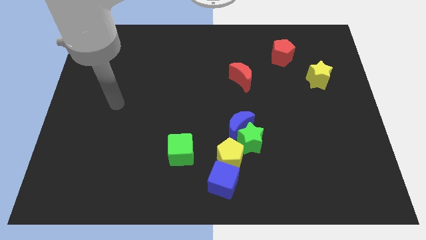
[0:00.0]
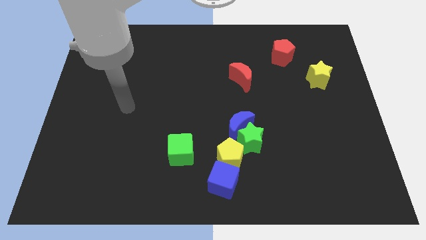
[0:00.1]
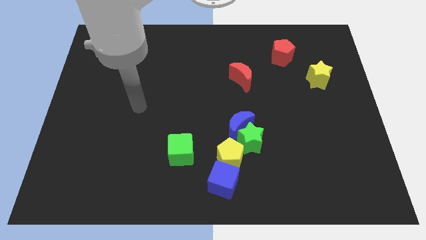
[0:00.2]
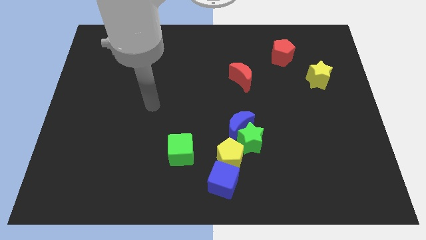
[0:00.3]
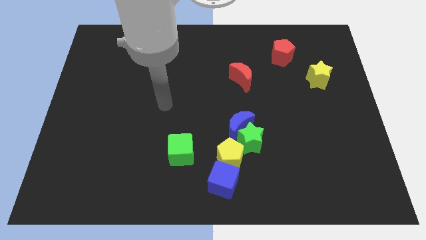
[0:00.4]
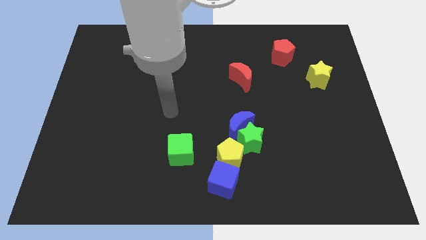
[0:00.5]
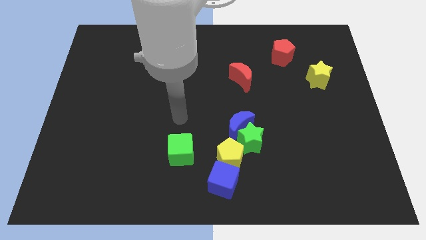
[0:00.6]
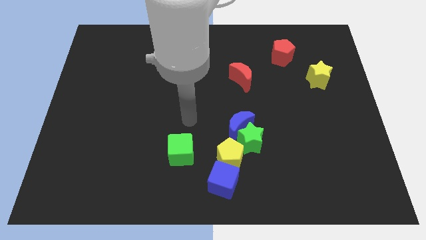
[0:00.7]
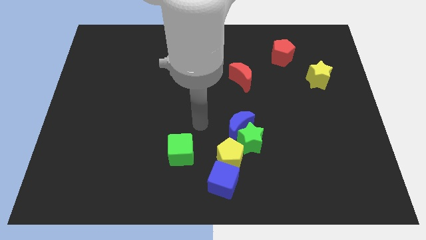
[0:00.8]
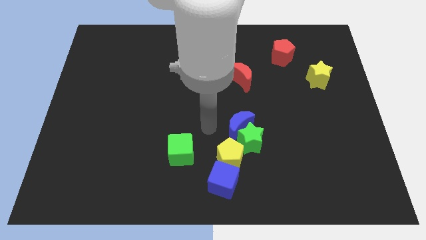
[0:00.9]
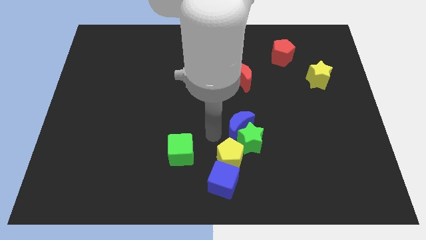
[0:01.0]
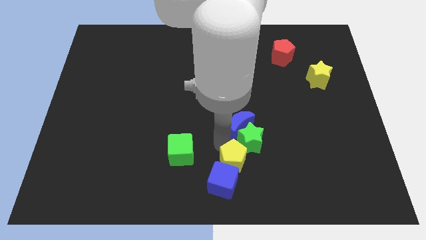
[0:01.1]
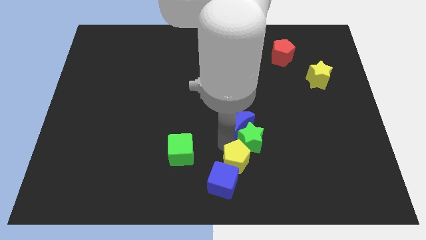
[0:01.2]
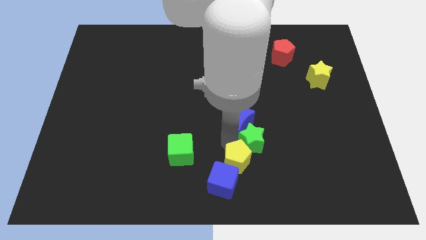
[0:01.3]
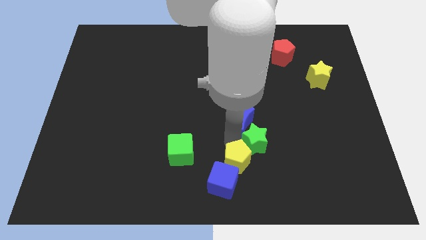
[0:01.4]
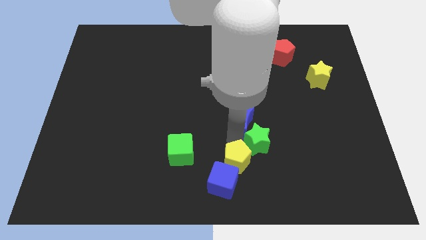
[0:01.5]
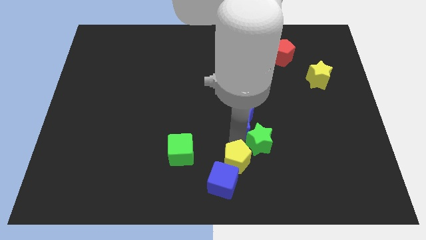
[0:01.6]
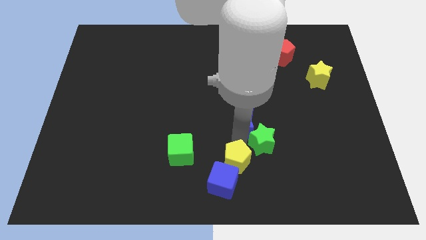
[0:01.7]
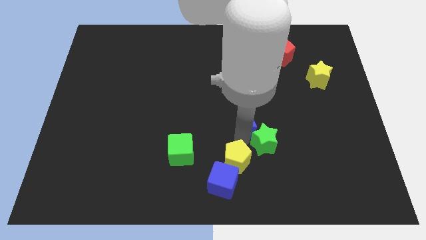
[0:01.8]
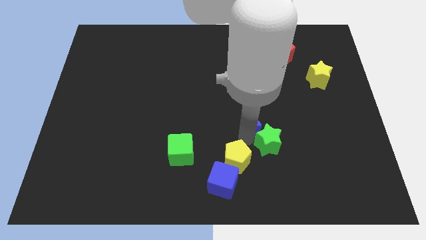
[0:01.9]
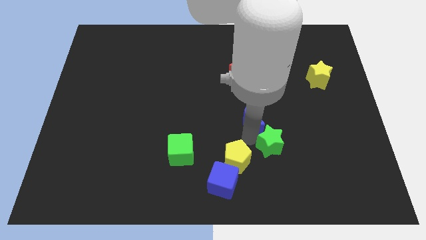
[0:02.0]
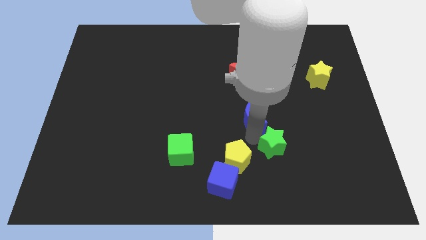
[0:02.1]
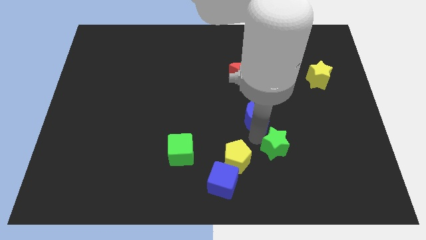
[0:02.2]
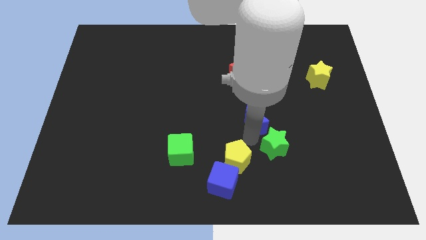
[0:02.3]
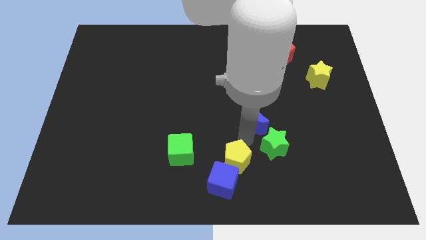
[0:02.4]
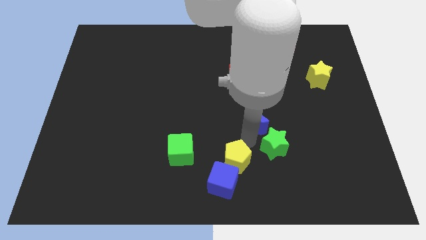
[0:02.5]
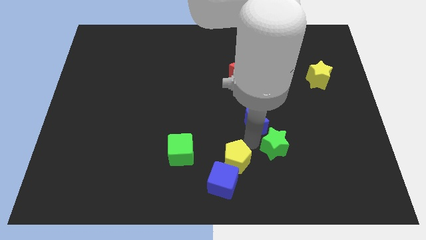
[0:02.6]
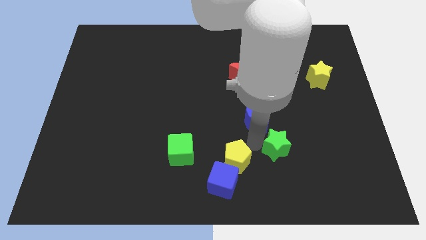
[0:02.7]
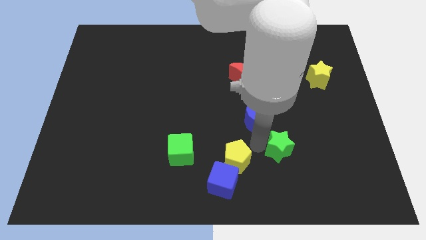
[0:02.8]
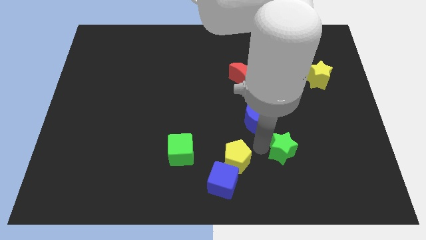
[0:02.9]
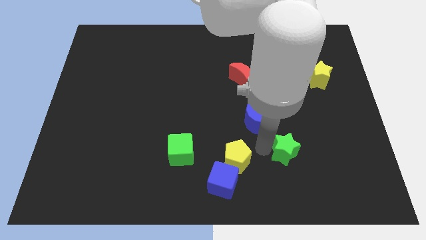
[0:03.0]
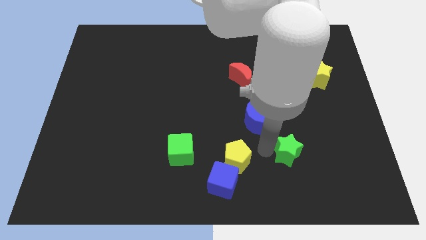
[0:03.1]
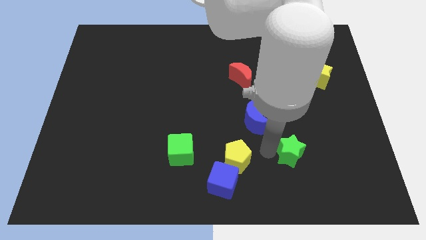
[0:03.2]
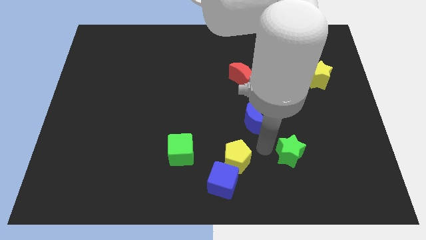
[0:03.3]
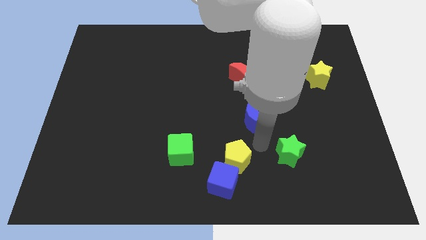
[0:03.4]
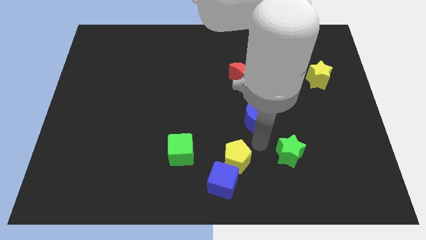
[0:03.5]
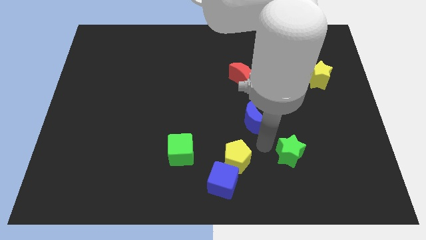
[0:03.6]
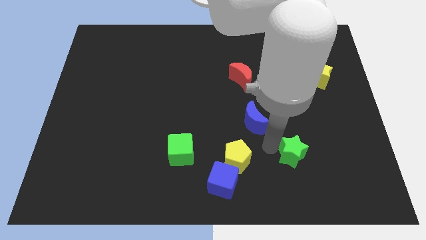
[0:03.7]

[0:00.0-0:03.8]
separate the green star from the blue moon and yellow pentagon

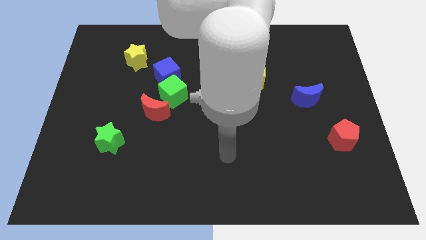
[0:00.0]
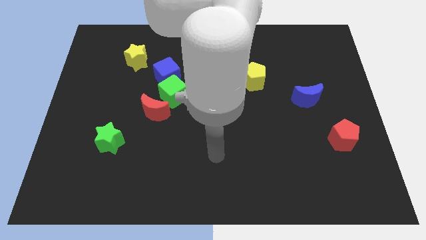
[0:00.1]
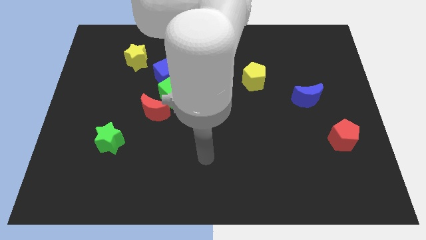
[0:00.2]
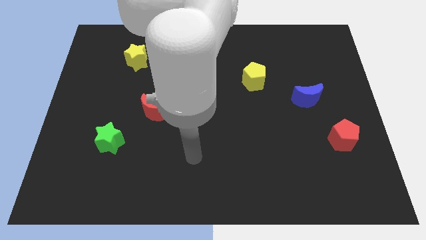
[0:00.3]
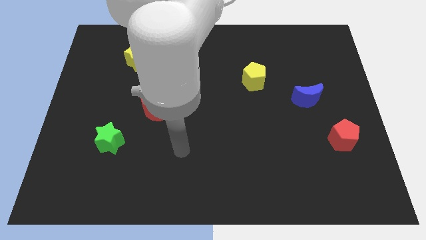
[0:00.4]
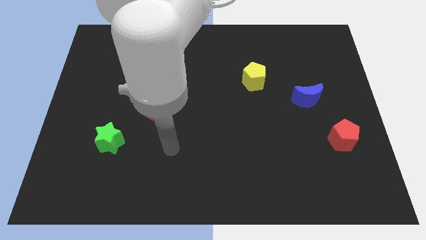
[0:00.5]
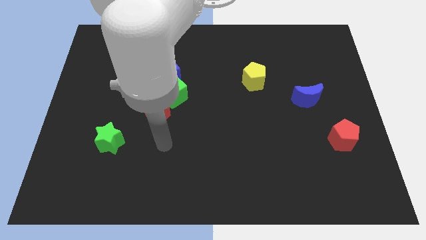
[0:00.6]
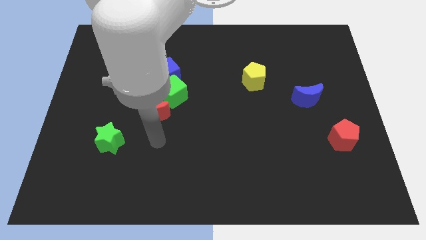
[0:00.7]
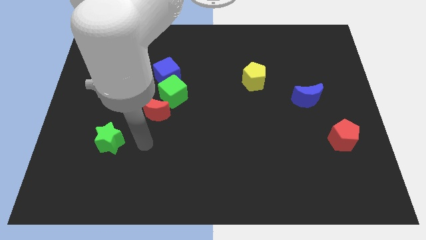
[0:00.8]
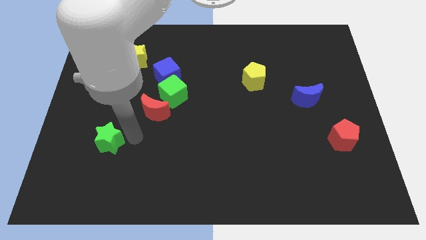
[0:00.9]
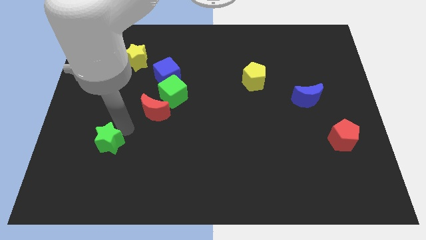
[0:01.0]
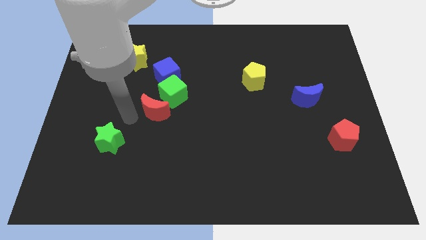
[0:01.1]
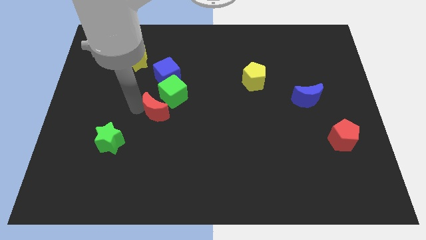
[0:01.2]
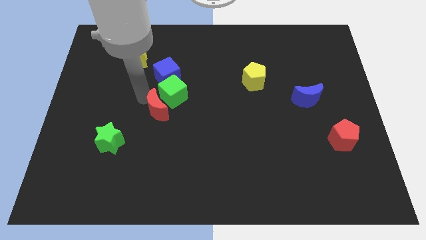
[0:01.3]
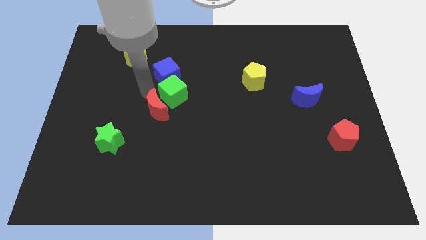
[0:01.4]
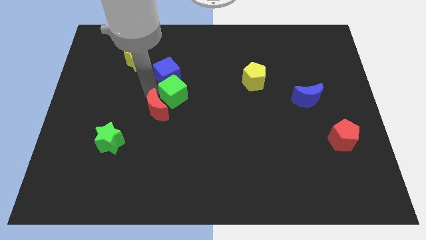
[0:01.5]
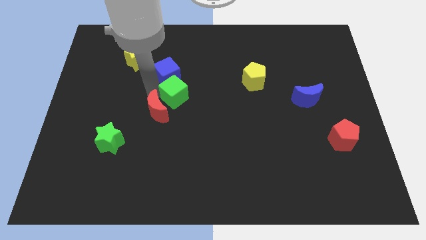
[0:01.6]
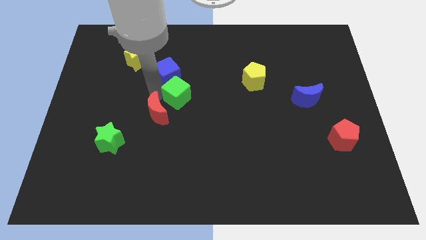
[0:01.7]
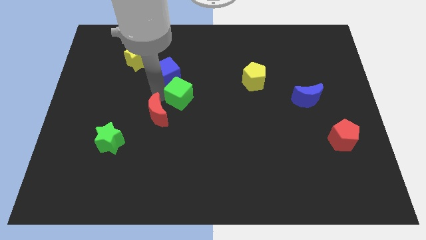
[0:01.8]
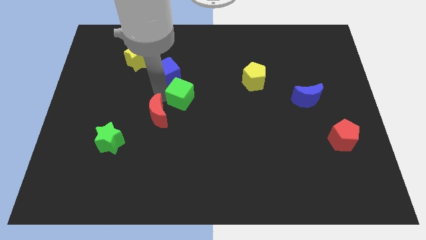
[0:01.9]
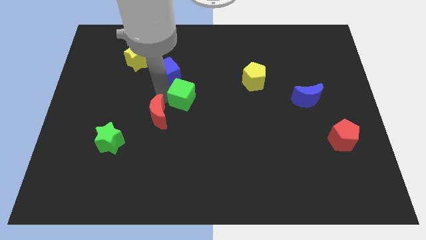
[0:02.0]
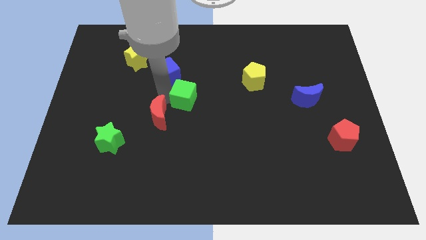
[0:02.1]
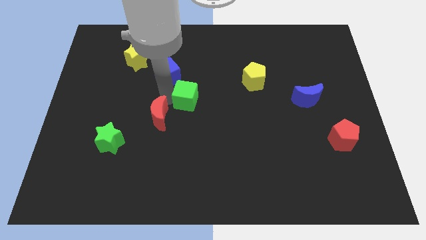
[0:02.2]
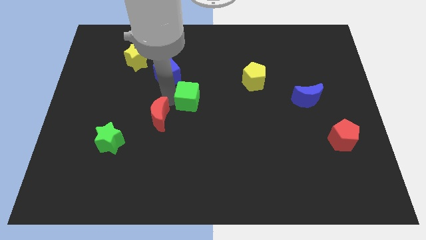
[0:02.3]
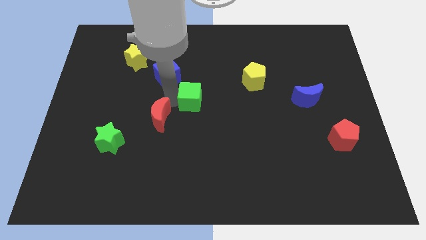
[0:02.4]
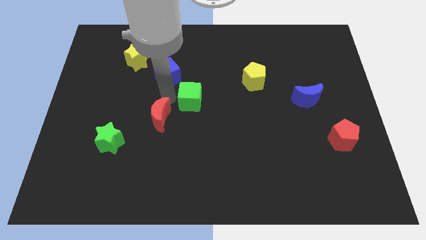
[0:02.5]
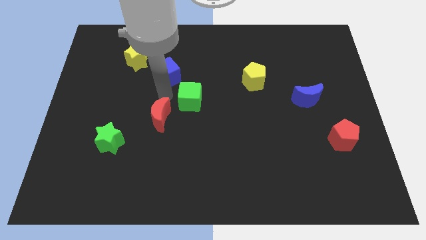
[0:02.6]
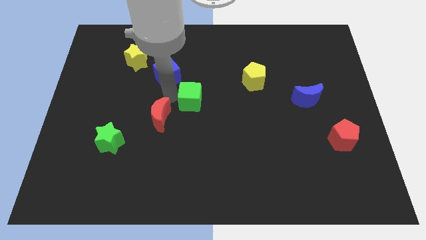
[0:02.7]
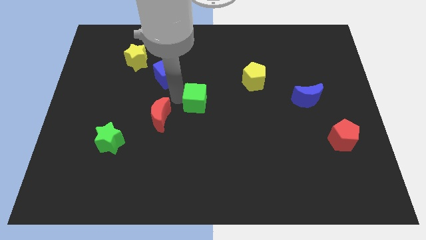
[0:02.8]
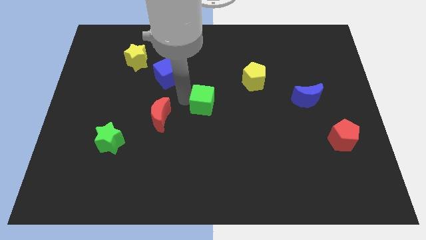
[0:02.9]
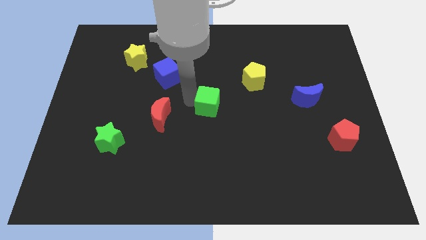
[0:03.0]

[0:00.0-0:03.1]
separate the green cube from the blue cube and red moon

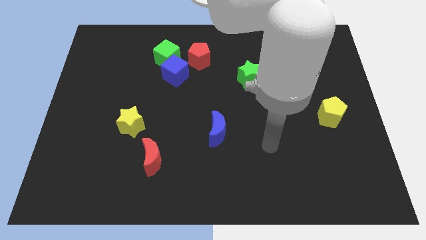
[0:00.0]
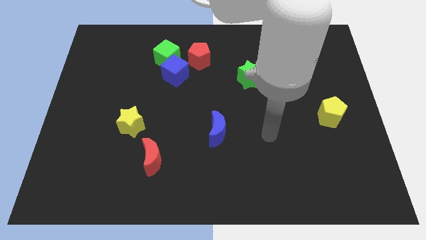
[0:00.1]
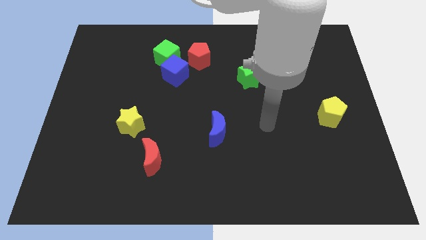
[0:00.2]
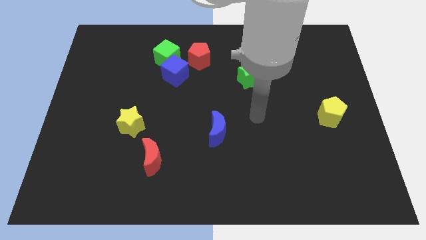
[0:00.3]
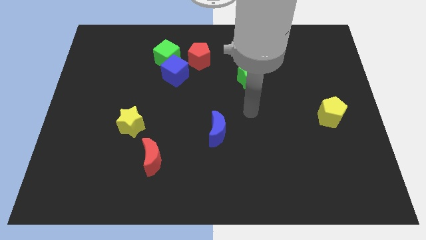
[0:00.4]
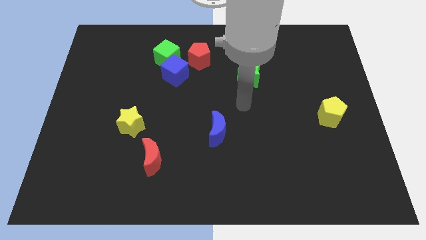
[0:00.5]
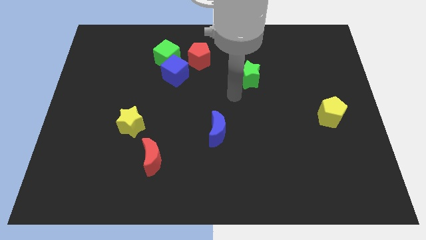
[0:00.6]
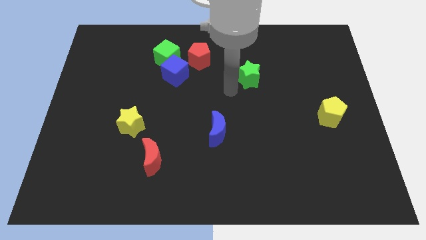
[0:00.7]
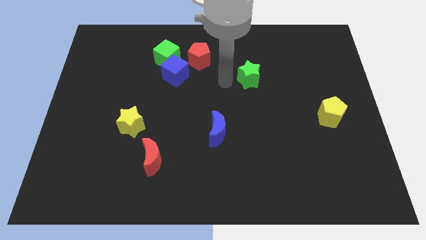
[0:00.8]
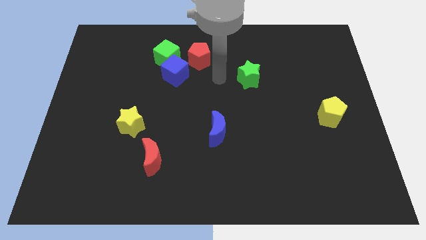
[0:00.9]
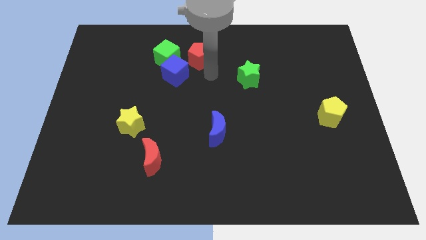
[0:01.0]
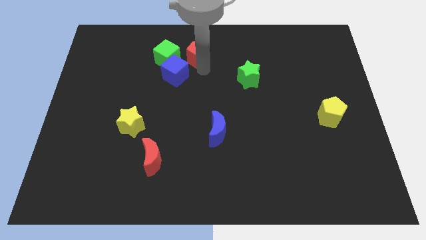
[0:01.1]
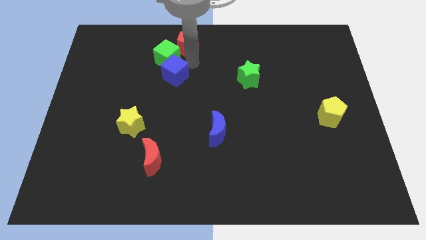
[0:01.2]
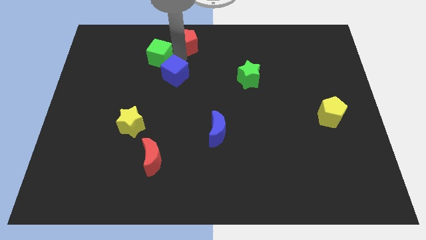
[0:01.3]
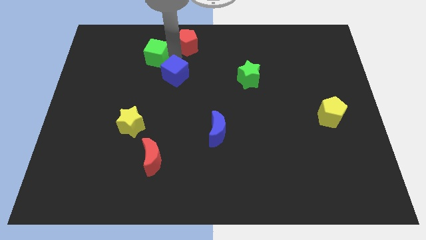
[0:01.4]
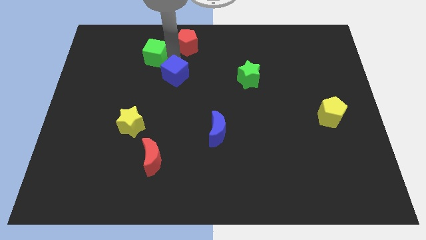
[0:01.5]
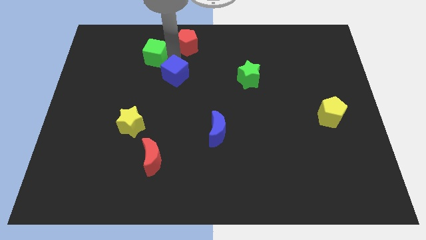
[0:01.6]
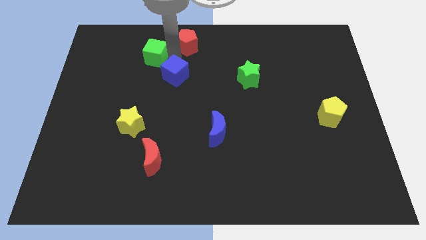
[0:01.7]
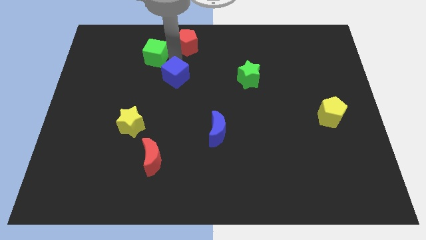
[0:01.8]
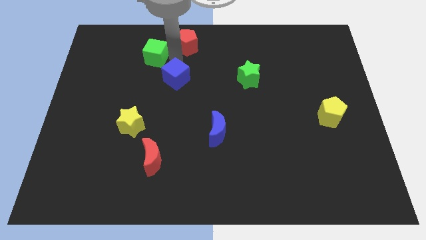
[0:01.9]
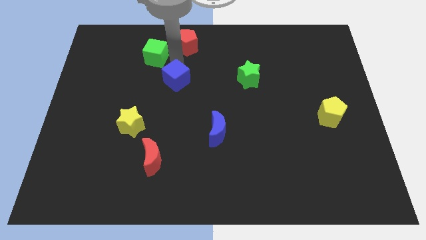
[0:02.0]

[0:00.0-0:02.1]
pull the blue cube apart from the green cube and red pentagon

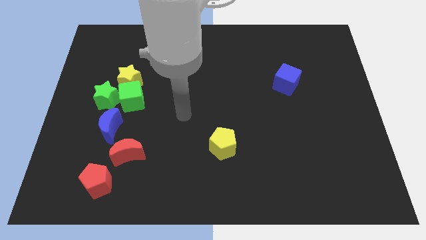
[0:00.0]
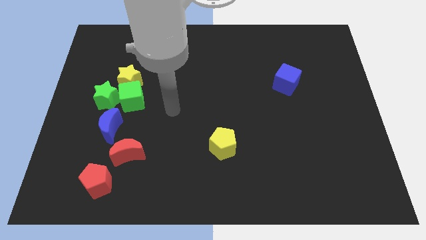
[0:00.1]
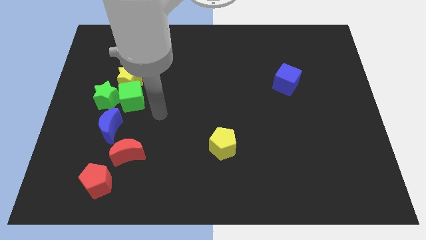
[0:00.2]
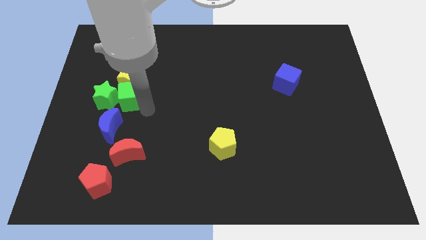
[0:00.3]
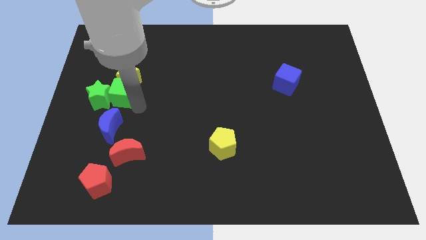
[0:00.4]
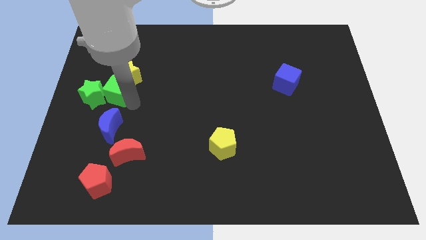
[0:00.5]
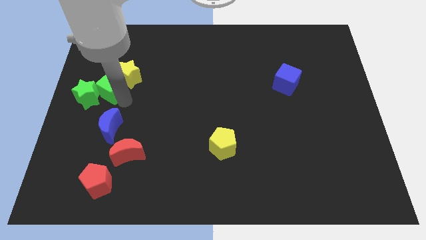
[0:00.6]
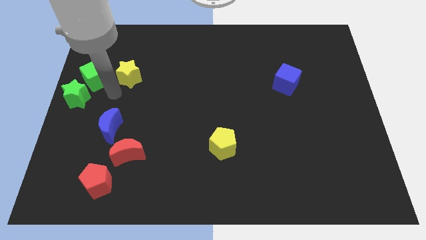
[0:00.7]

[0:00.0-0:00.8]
pull the yellow star apart from the green cube and green star
